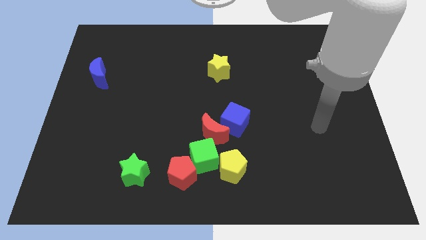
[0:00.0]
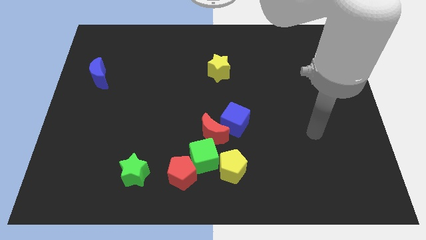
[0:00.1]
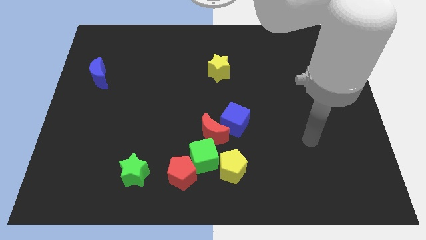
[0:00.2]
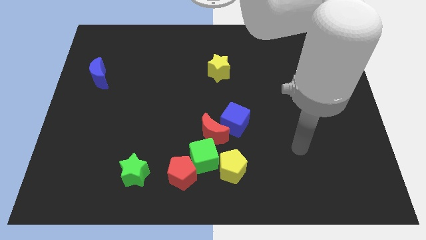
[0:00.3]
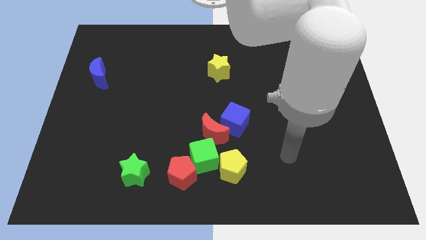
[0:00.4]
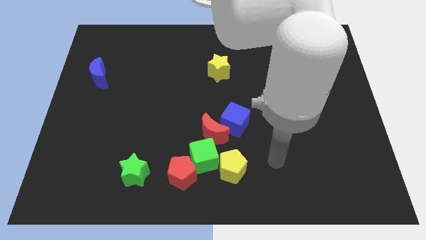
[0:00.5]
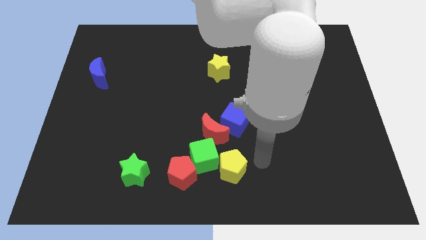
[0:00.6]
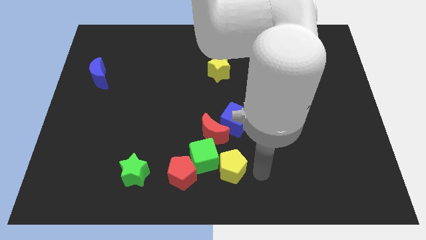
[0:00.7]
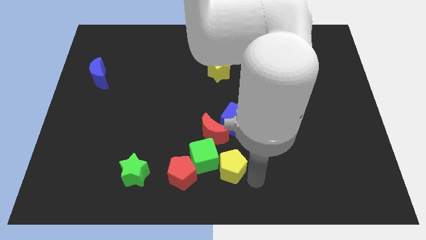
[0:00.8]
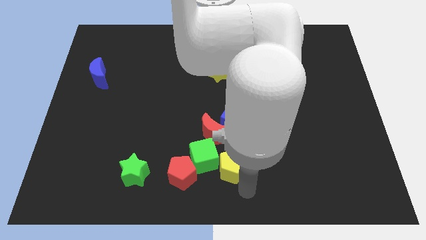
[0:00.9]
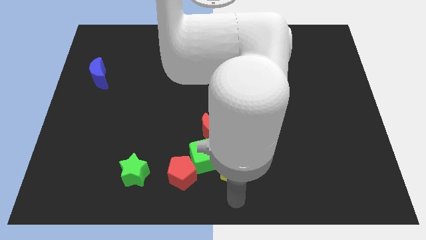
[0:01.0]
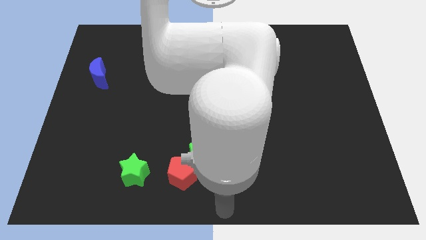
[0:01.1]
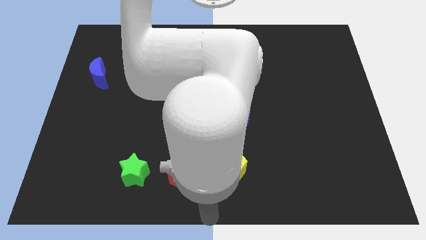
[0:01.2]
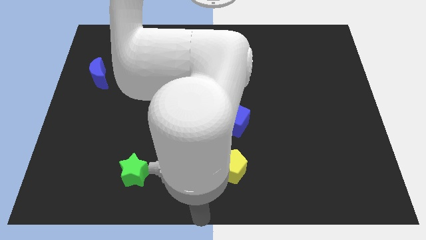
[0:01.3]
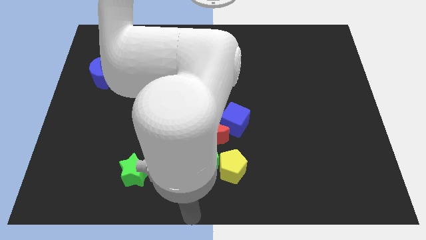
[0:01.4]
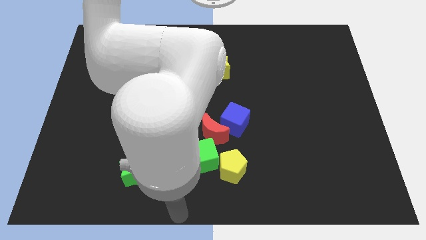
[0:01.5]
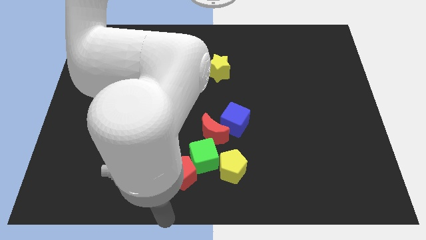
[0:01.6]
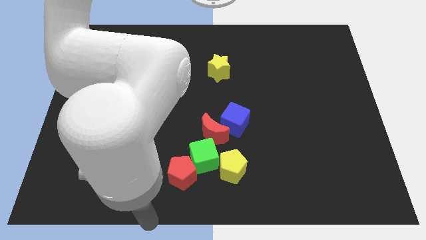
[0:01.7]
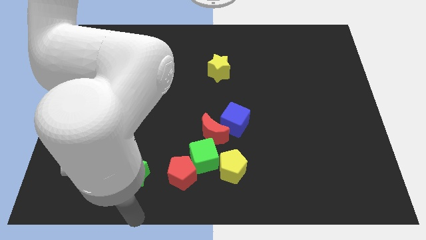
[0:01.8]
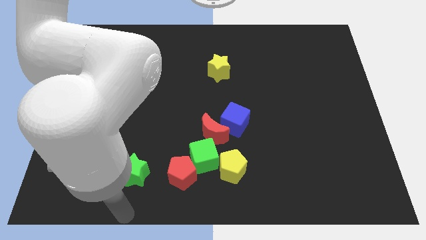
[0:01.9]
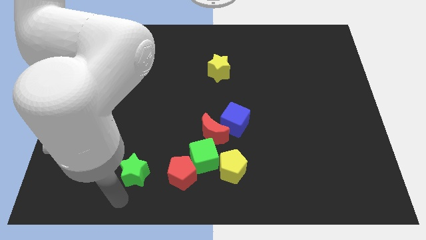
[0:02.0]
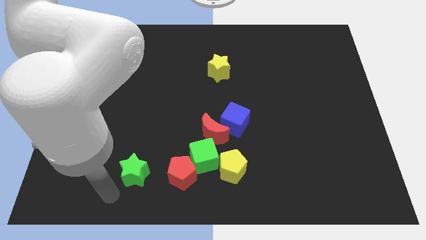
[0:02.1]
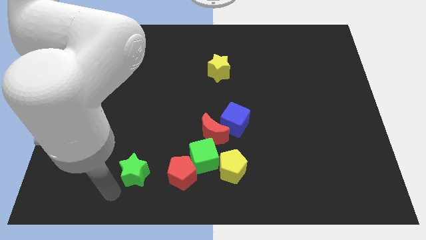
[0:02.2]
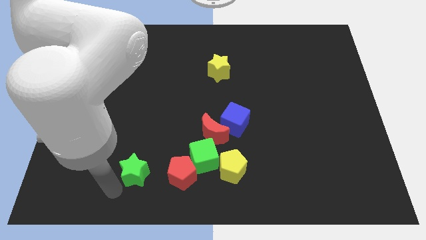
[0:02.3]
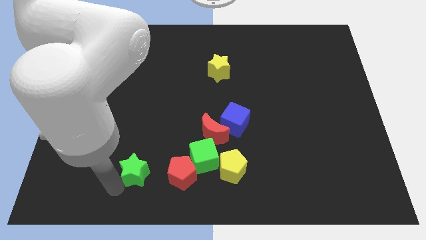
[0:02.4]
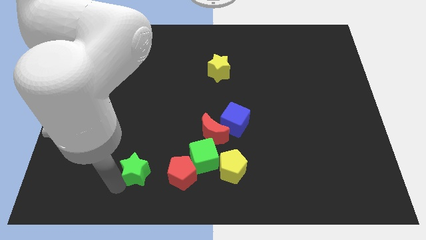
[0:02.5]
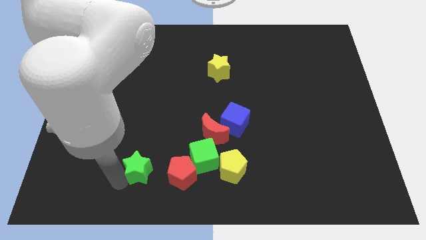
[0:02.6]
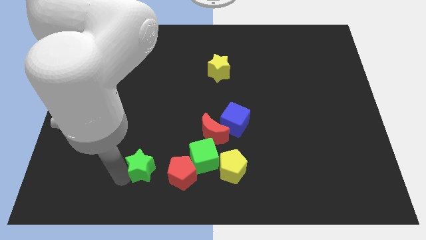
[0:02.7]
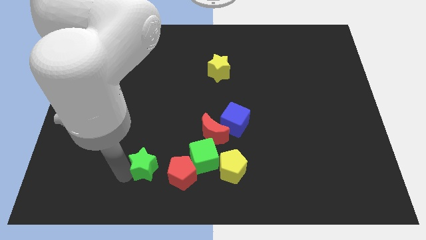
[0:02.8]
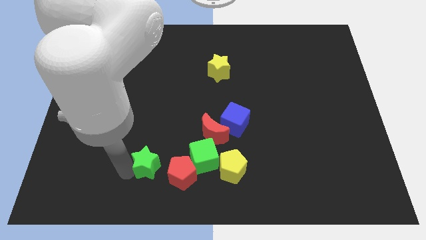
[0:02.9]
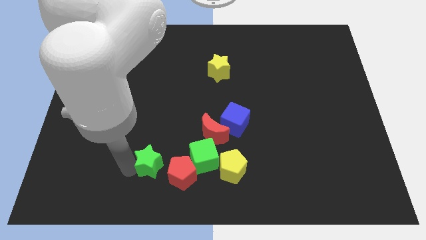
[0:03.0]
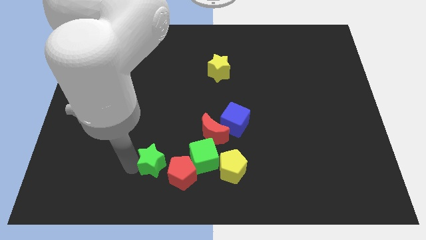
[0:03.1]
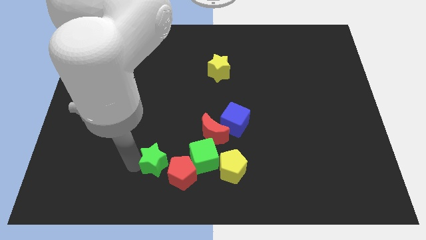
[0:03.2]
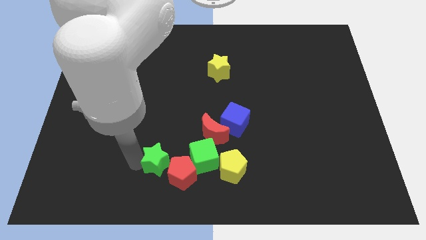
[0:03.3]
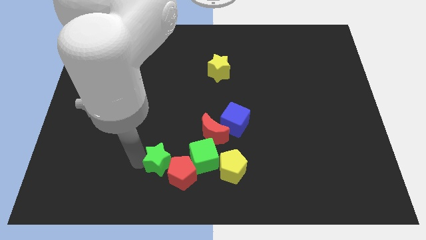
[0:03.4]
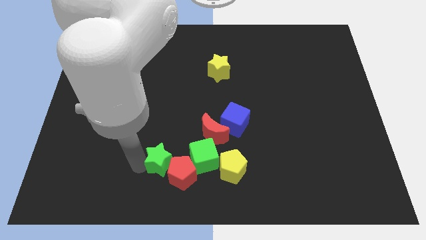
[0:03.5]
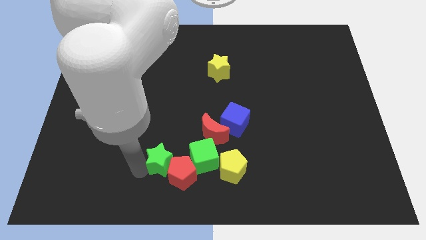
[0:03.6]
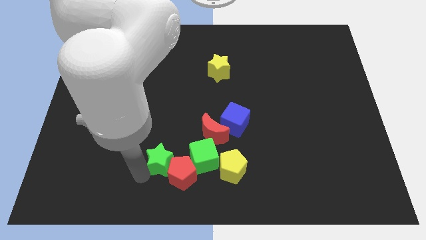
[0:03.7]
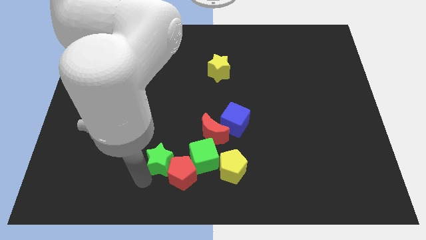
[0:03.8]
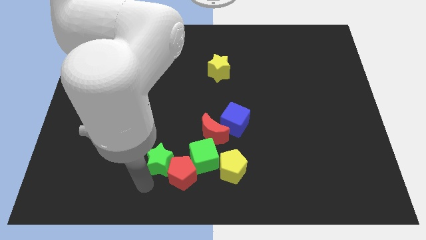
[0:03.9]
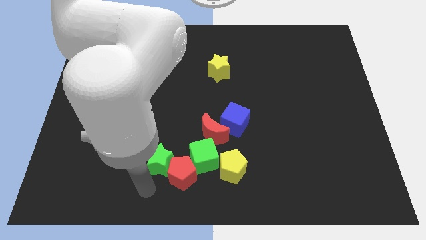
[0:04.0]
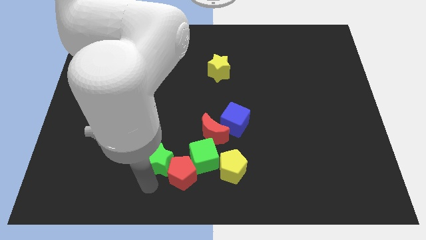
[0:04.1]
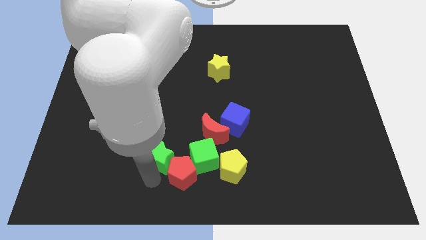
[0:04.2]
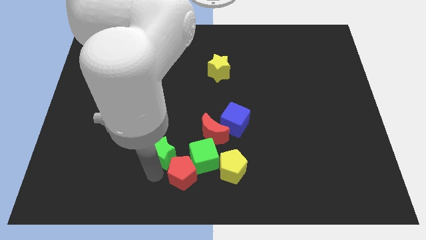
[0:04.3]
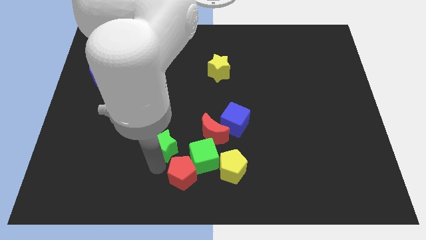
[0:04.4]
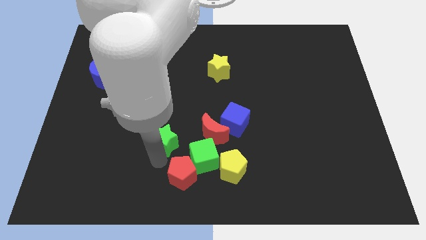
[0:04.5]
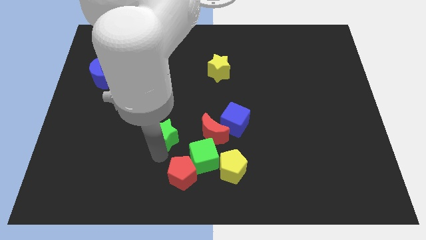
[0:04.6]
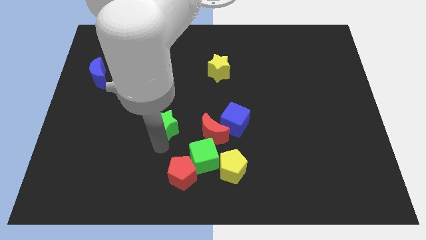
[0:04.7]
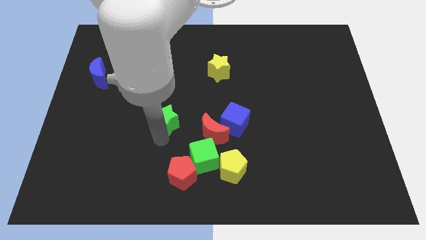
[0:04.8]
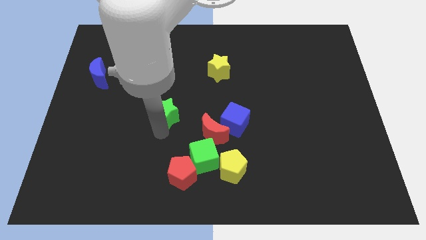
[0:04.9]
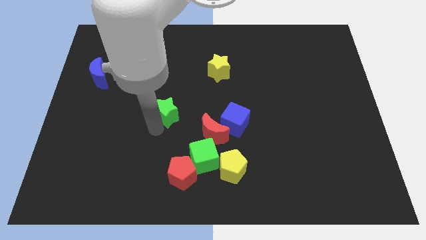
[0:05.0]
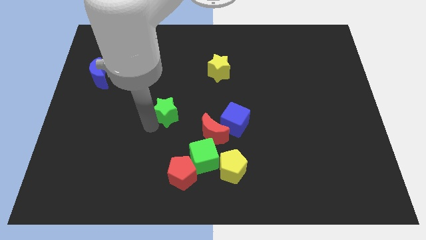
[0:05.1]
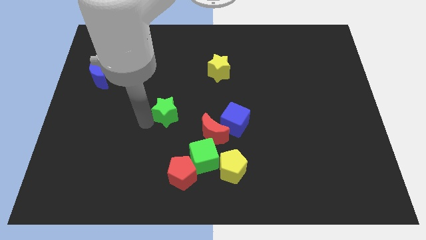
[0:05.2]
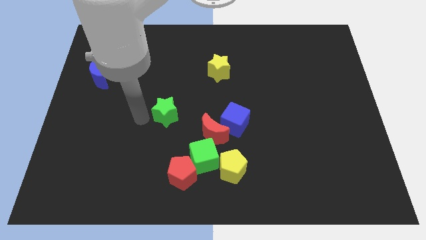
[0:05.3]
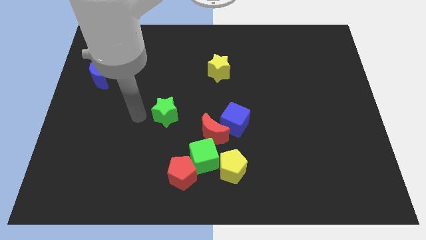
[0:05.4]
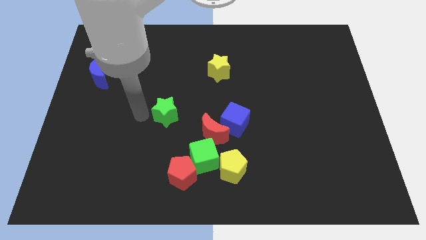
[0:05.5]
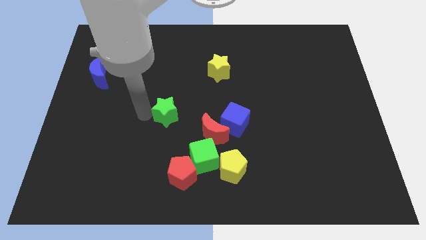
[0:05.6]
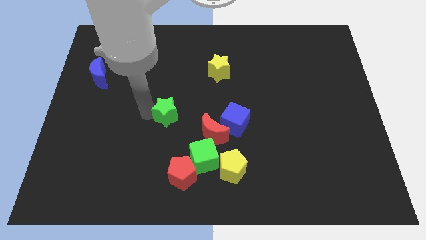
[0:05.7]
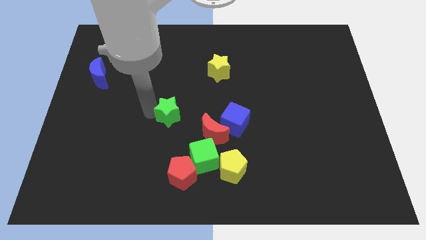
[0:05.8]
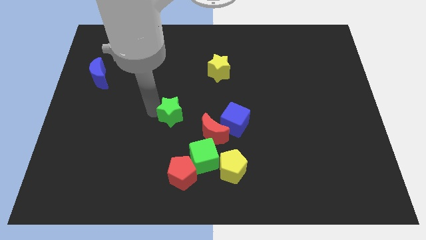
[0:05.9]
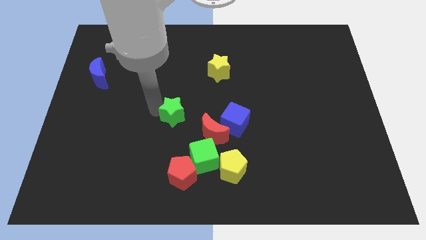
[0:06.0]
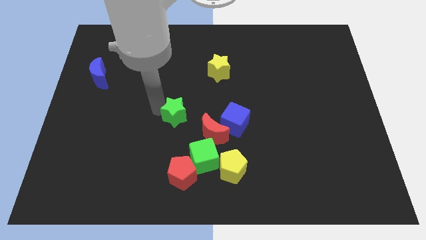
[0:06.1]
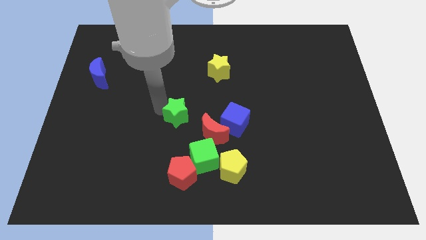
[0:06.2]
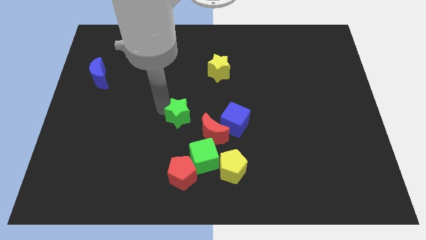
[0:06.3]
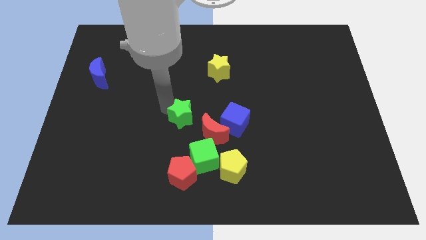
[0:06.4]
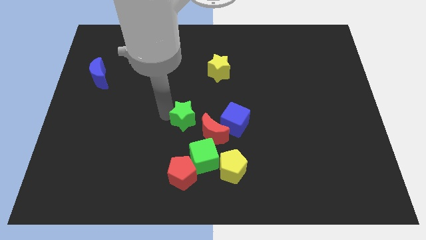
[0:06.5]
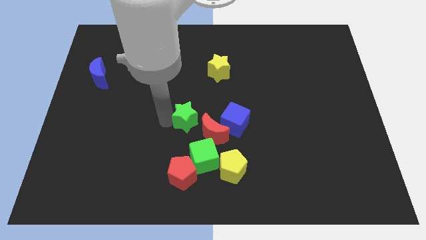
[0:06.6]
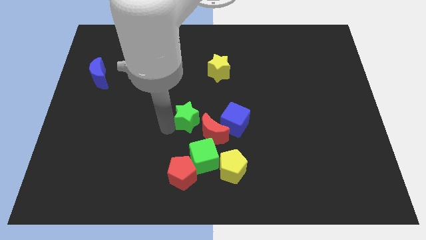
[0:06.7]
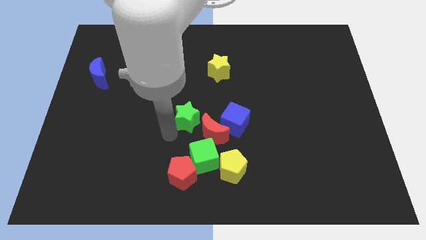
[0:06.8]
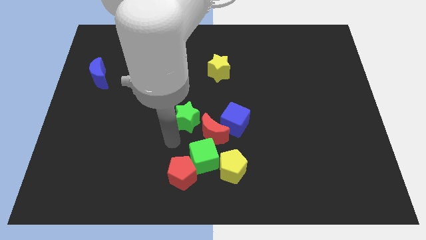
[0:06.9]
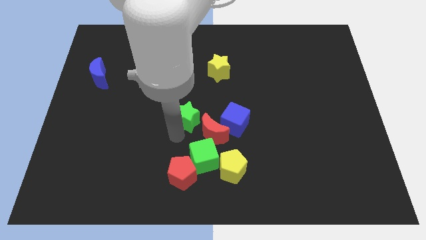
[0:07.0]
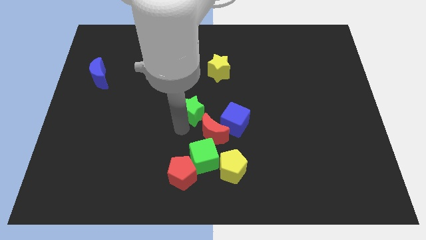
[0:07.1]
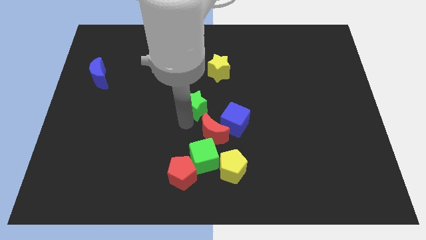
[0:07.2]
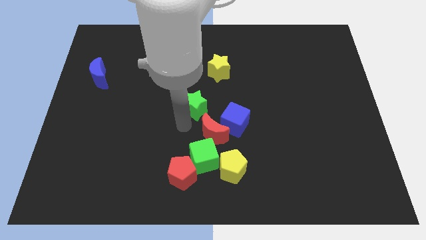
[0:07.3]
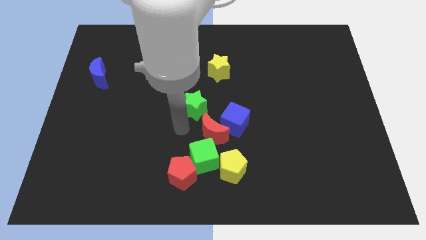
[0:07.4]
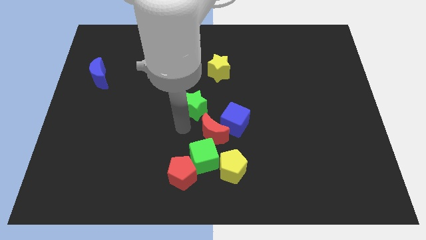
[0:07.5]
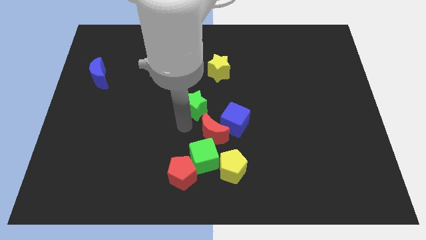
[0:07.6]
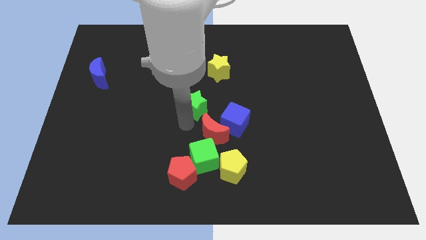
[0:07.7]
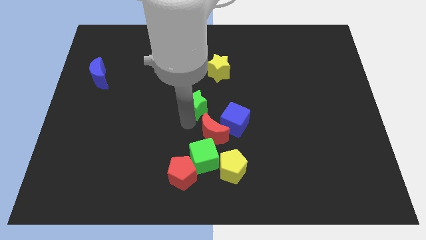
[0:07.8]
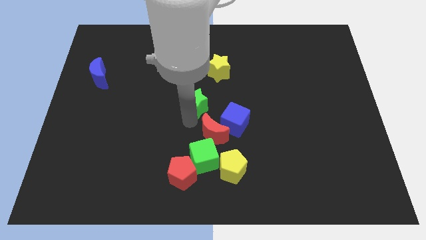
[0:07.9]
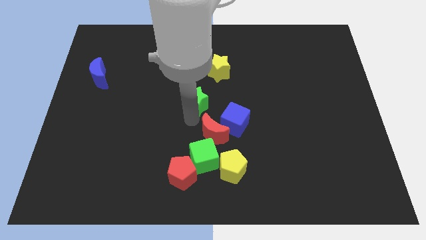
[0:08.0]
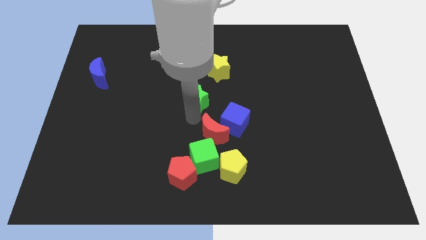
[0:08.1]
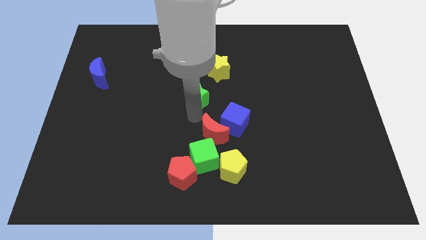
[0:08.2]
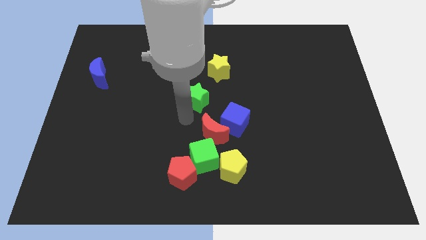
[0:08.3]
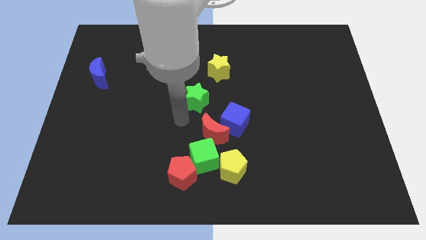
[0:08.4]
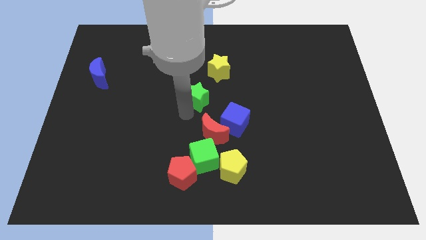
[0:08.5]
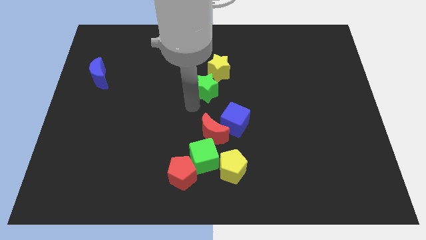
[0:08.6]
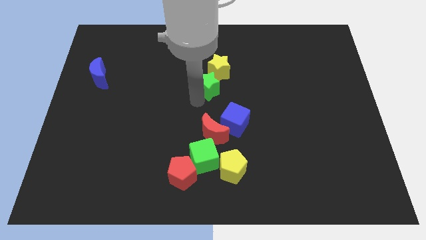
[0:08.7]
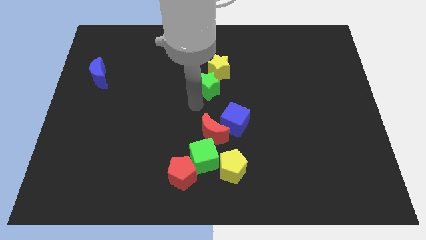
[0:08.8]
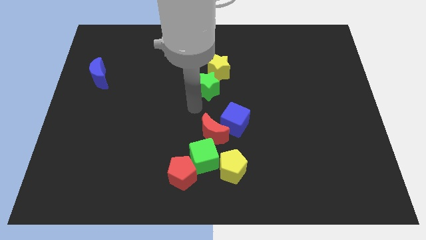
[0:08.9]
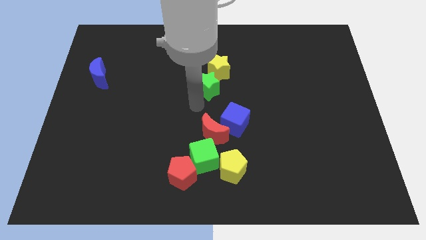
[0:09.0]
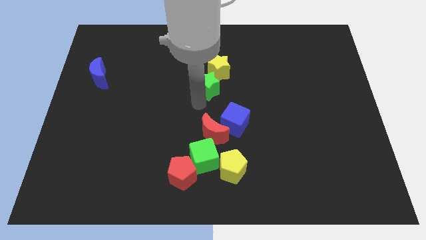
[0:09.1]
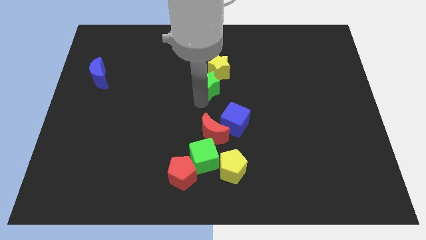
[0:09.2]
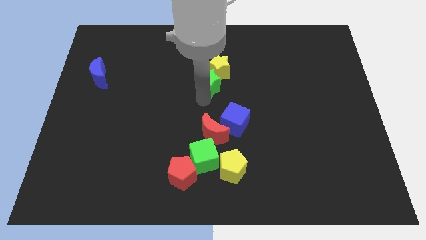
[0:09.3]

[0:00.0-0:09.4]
put the green star close to the yellow star
